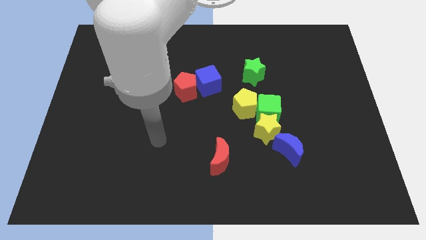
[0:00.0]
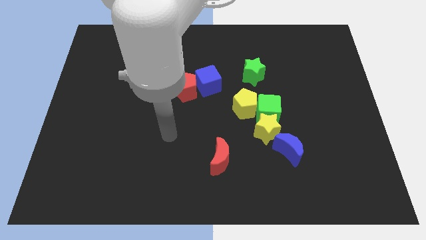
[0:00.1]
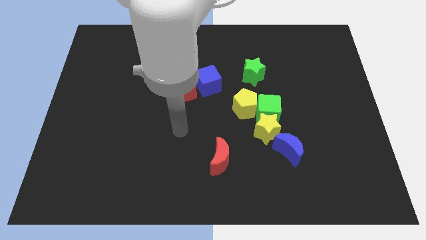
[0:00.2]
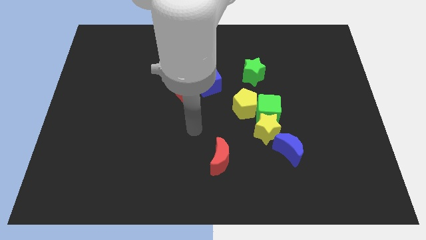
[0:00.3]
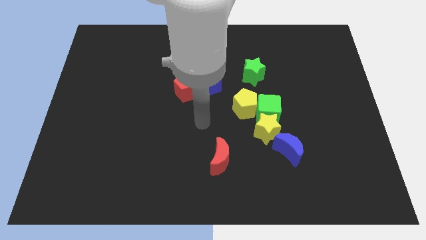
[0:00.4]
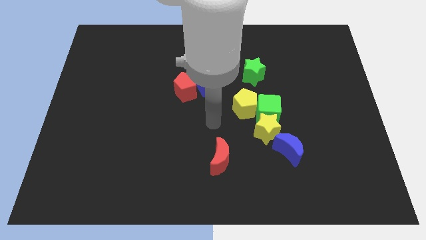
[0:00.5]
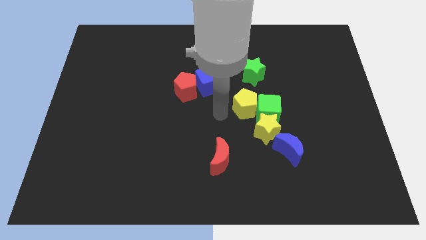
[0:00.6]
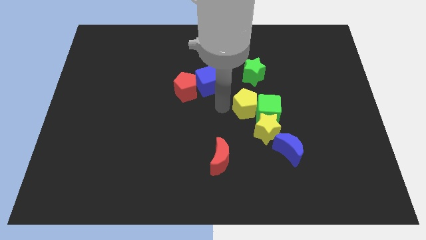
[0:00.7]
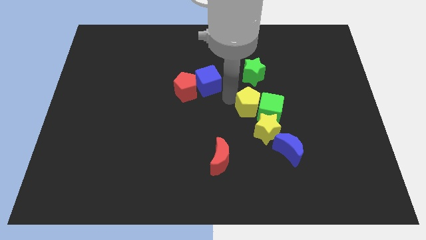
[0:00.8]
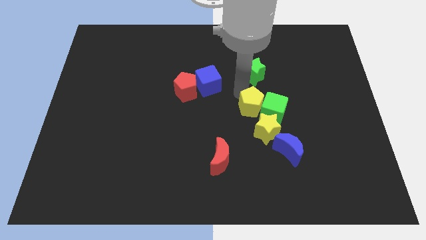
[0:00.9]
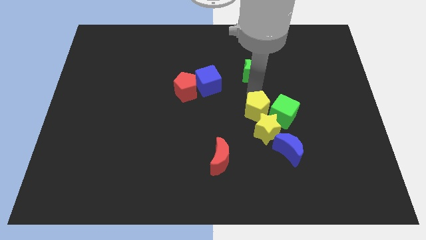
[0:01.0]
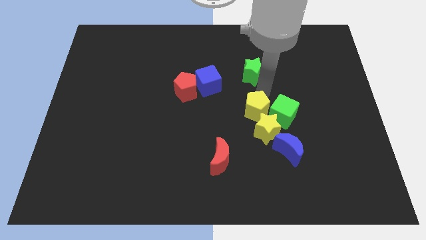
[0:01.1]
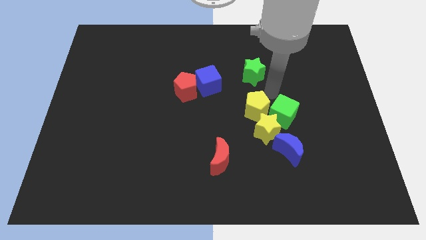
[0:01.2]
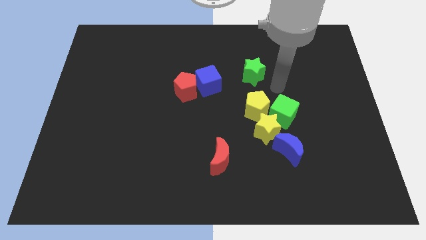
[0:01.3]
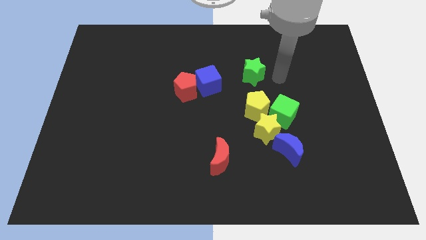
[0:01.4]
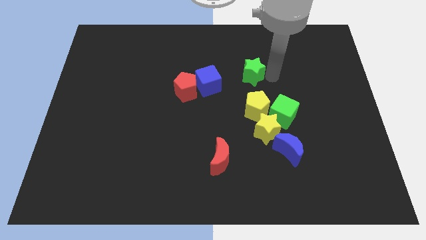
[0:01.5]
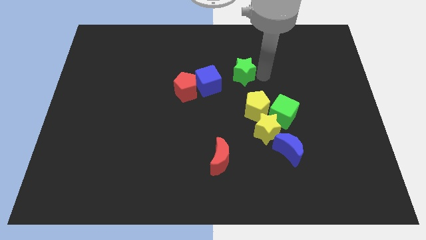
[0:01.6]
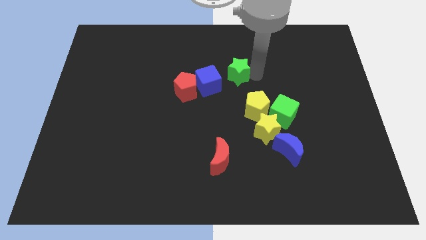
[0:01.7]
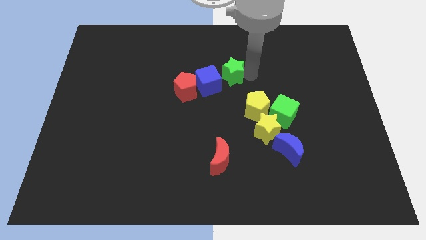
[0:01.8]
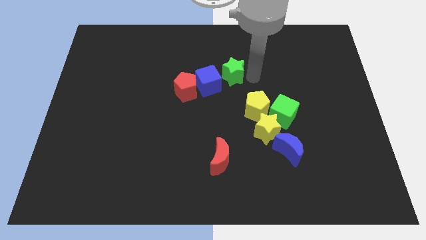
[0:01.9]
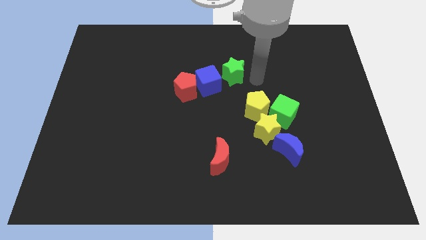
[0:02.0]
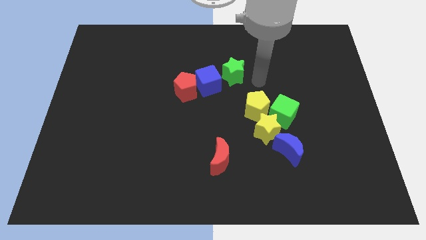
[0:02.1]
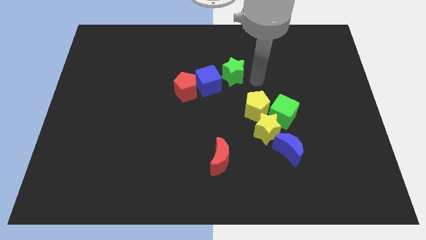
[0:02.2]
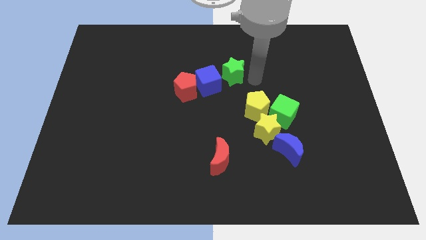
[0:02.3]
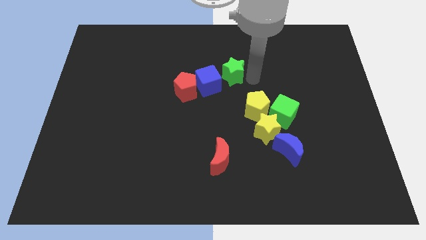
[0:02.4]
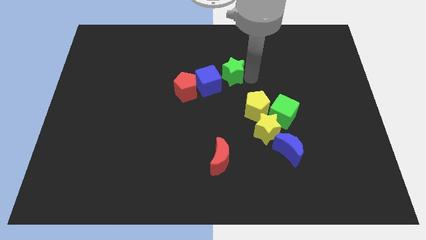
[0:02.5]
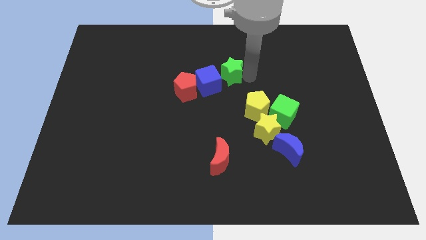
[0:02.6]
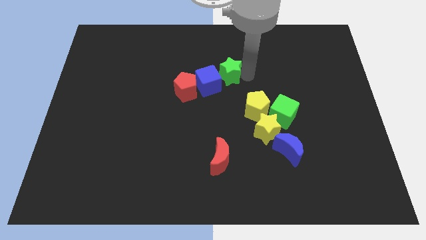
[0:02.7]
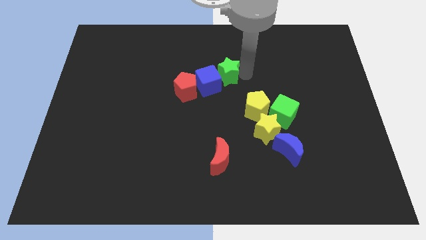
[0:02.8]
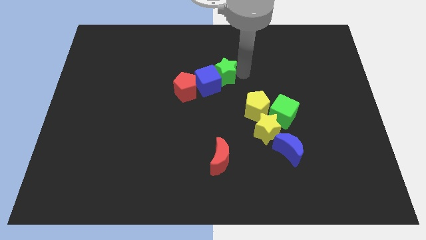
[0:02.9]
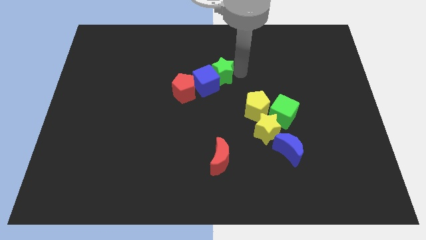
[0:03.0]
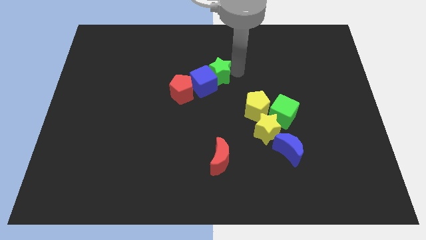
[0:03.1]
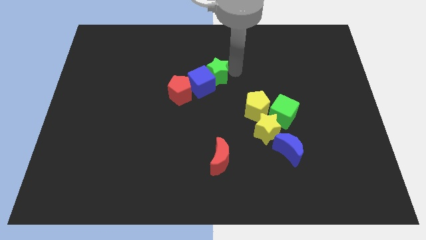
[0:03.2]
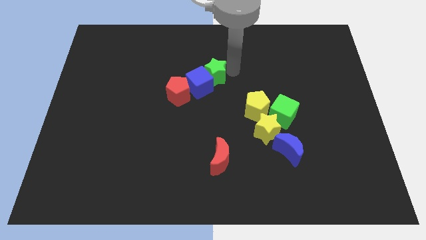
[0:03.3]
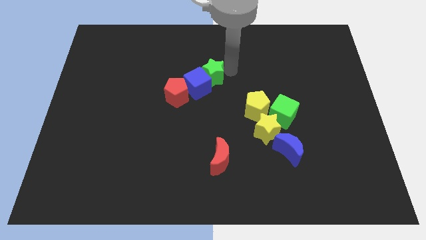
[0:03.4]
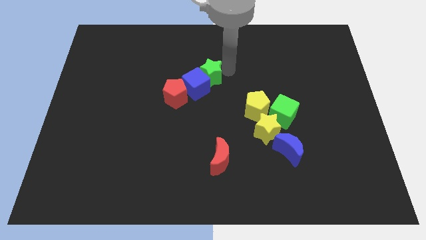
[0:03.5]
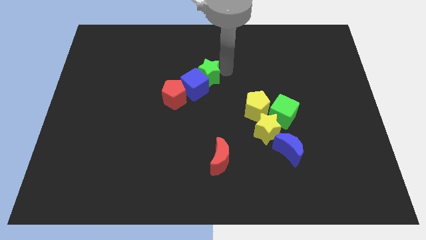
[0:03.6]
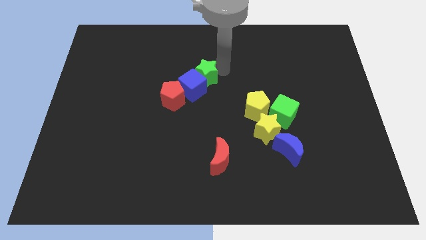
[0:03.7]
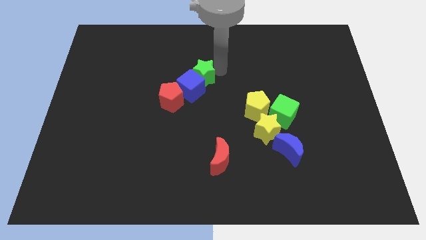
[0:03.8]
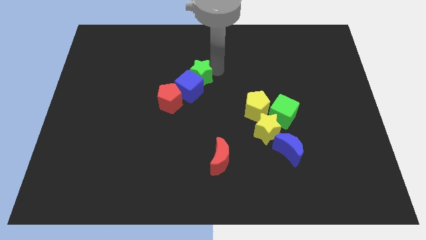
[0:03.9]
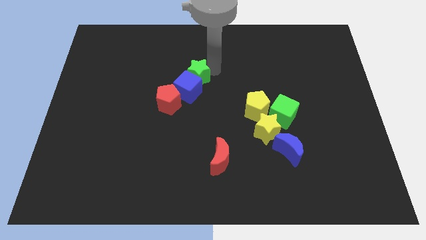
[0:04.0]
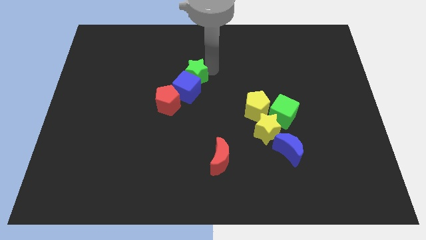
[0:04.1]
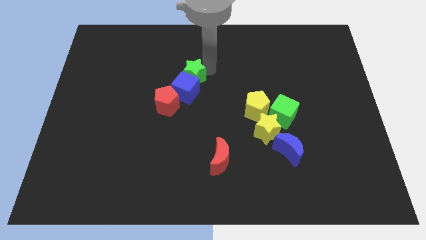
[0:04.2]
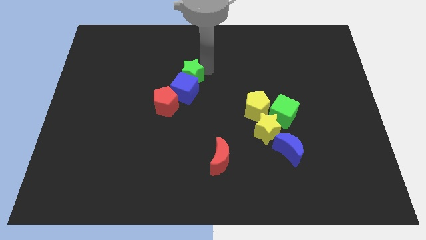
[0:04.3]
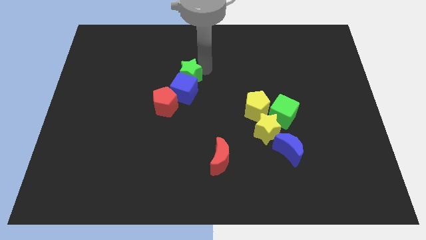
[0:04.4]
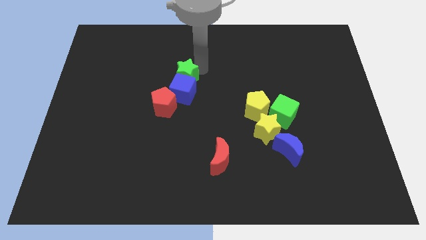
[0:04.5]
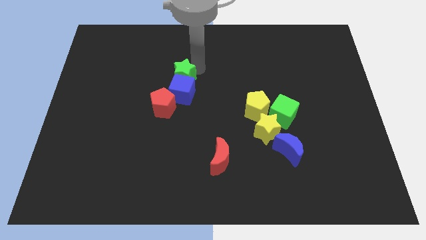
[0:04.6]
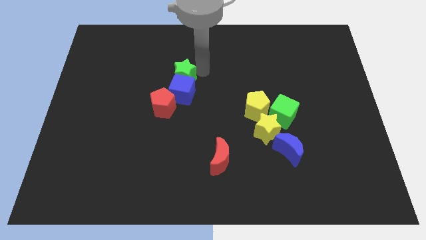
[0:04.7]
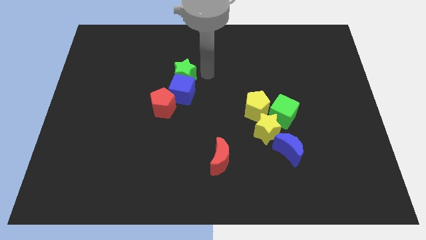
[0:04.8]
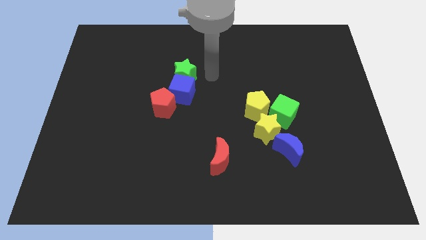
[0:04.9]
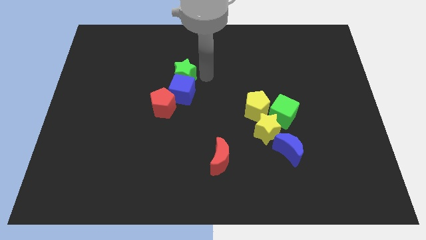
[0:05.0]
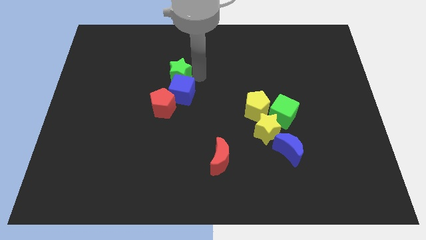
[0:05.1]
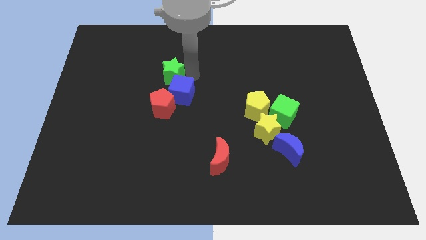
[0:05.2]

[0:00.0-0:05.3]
push the green star to the left

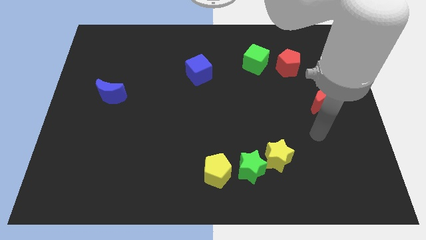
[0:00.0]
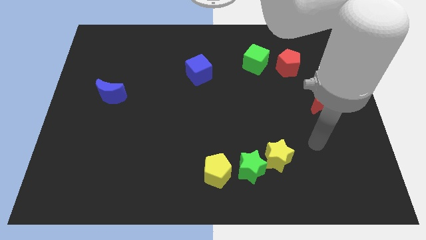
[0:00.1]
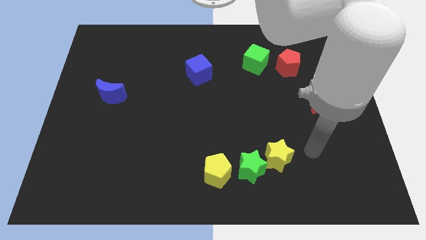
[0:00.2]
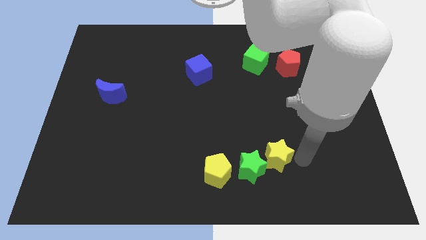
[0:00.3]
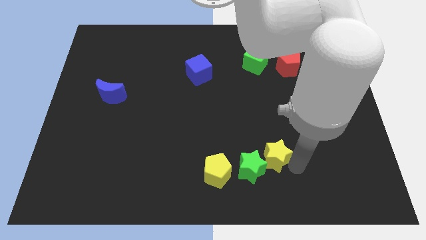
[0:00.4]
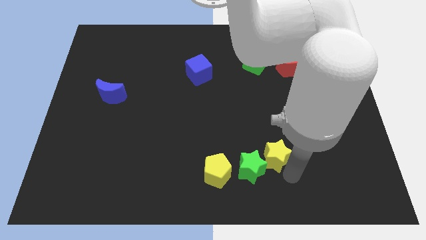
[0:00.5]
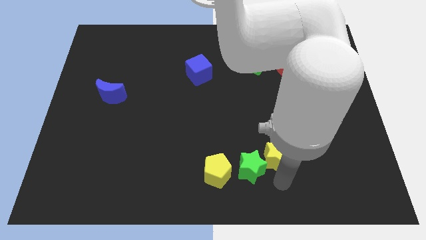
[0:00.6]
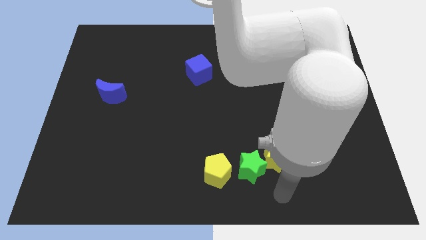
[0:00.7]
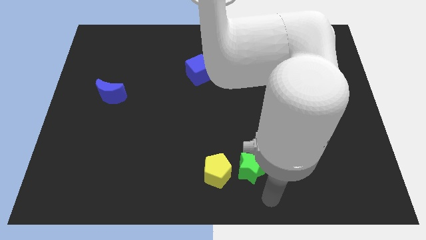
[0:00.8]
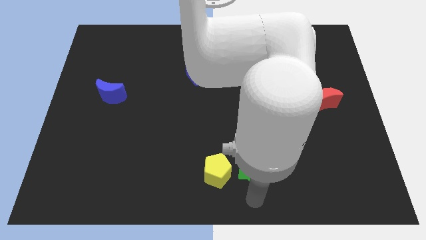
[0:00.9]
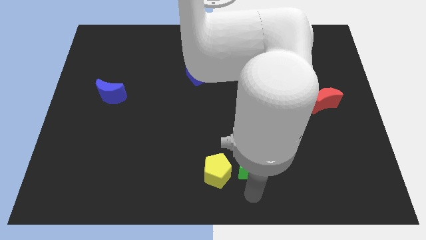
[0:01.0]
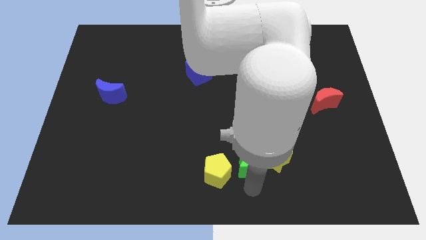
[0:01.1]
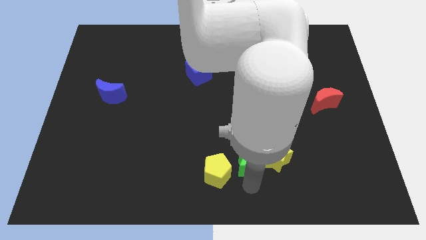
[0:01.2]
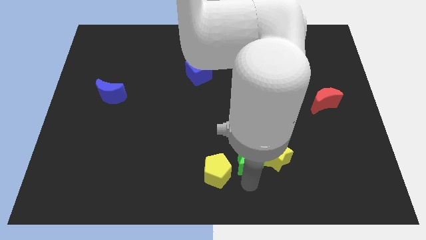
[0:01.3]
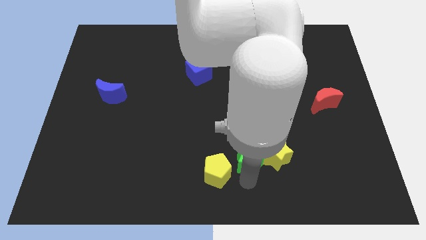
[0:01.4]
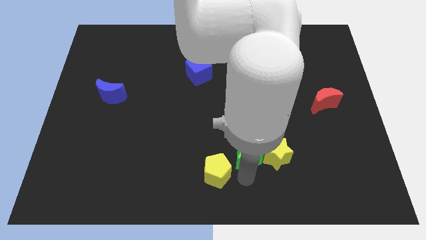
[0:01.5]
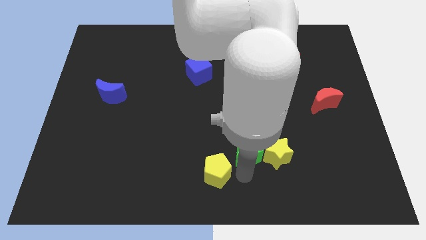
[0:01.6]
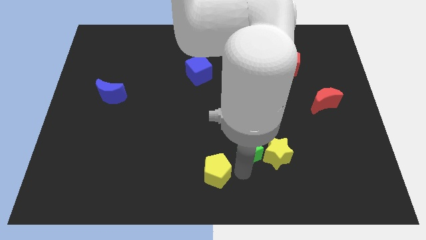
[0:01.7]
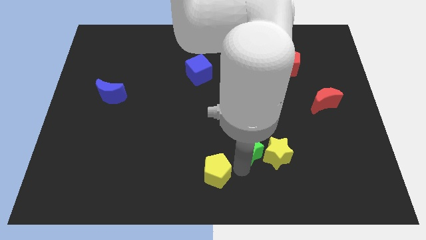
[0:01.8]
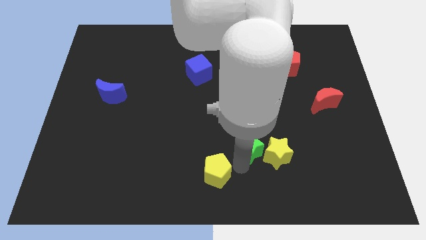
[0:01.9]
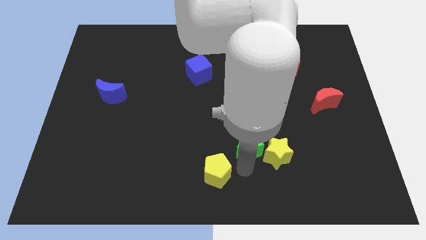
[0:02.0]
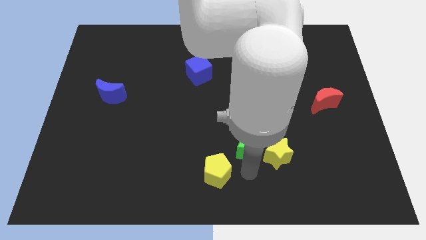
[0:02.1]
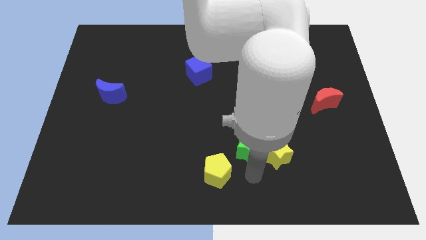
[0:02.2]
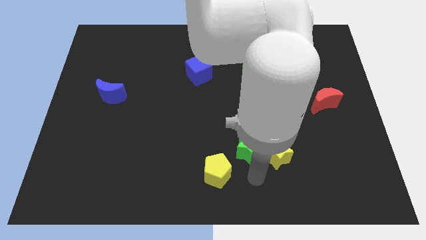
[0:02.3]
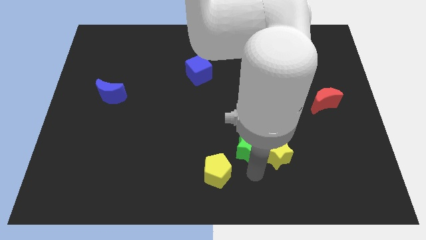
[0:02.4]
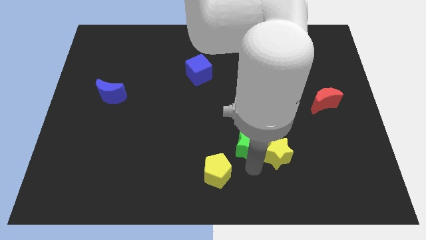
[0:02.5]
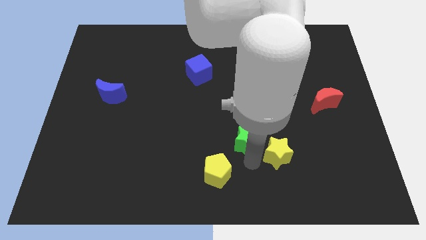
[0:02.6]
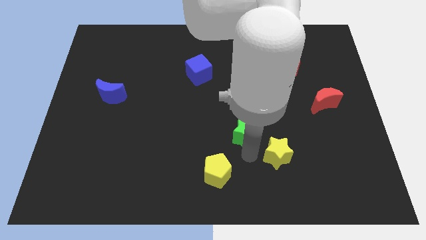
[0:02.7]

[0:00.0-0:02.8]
move the green star slightly upwards
